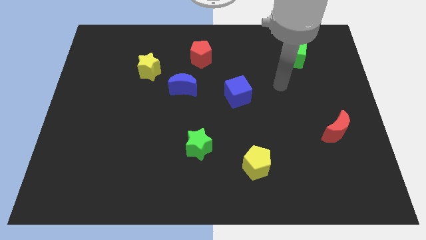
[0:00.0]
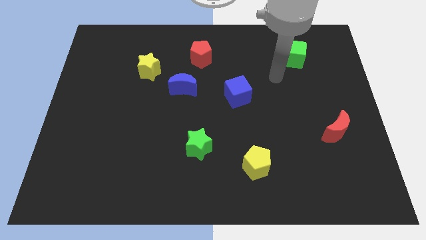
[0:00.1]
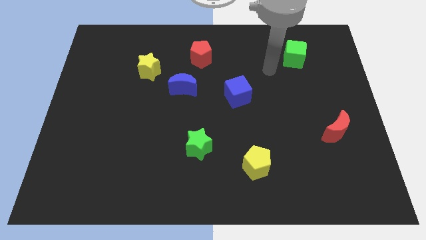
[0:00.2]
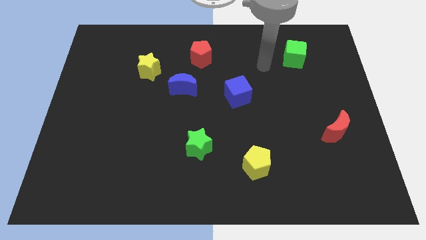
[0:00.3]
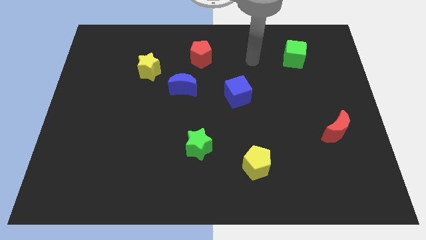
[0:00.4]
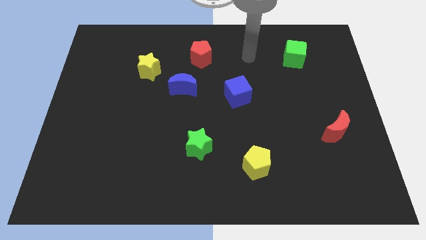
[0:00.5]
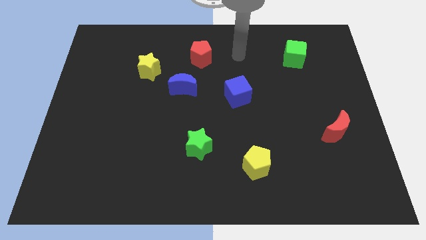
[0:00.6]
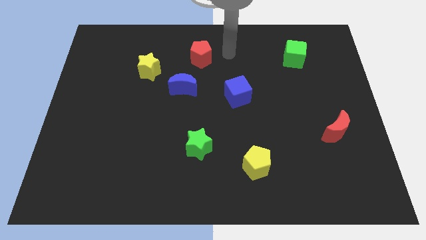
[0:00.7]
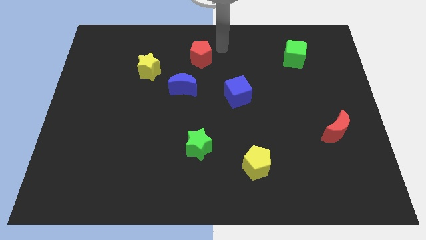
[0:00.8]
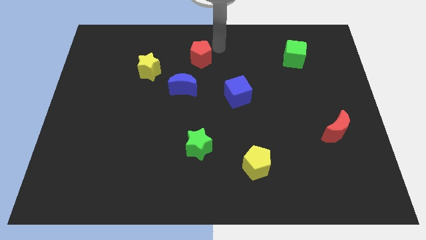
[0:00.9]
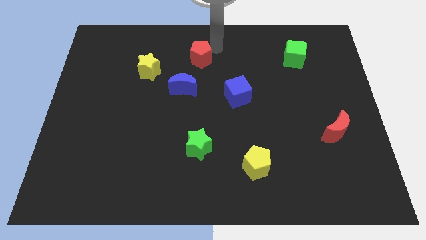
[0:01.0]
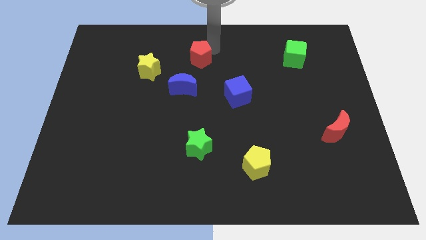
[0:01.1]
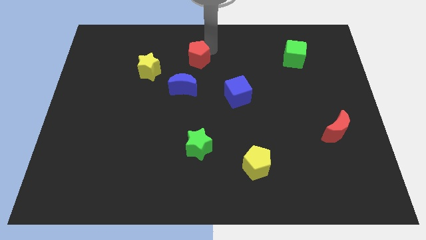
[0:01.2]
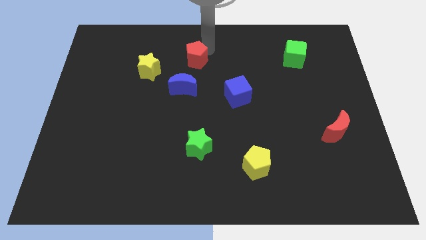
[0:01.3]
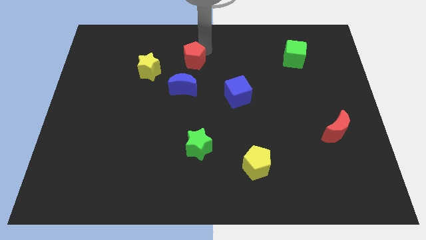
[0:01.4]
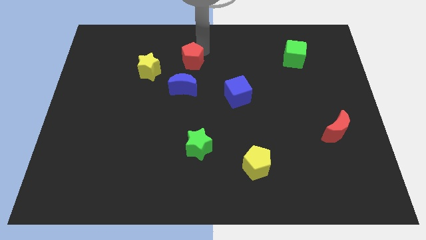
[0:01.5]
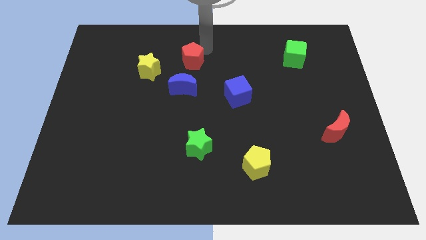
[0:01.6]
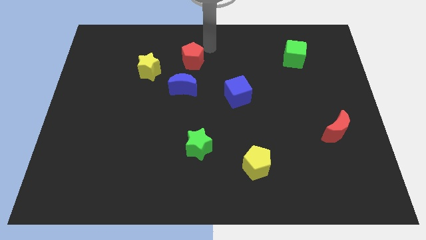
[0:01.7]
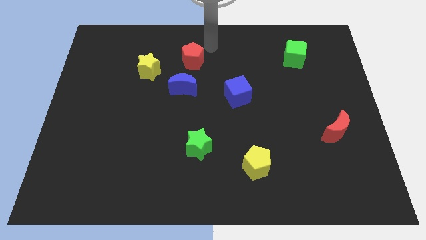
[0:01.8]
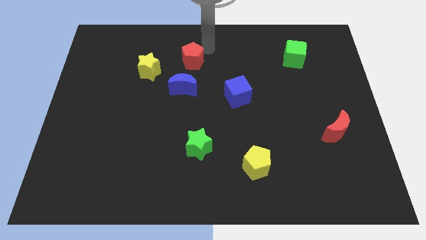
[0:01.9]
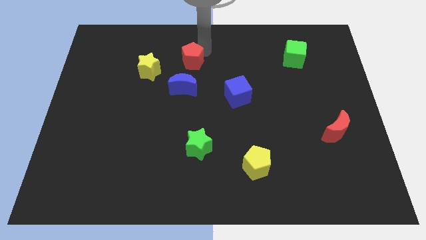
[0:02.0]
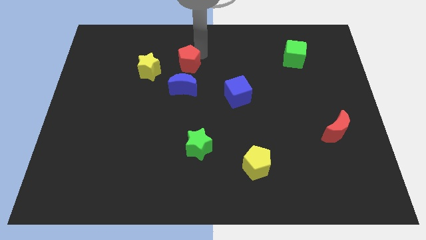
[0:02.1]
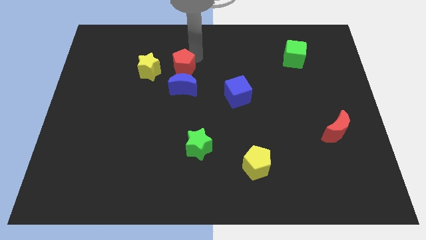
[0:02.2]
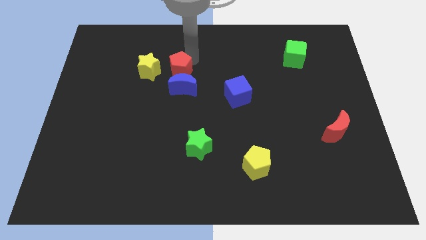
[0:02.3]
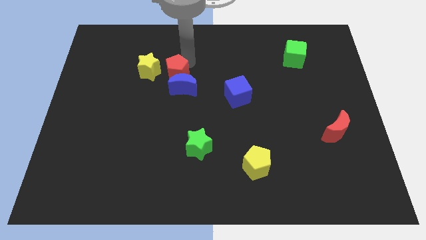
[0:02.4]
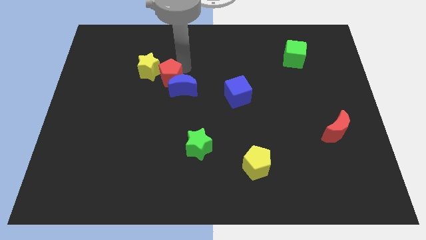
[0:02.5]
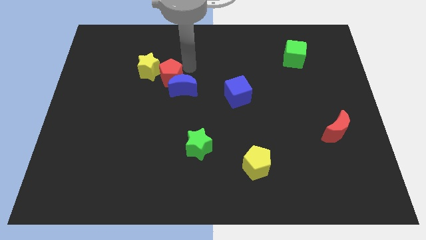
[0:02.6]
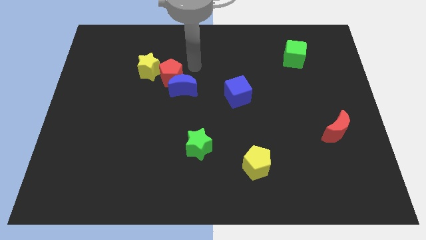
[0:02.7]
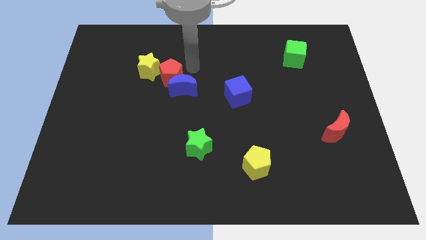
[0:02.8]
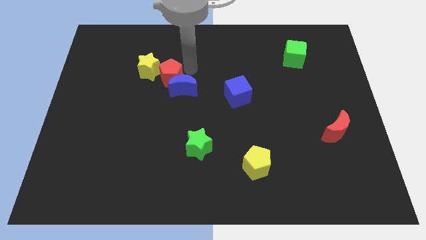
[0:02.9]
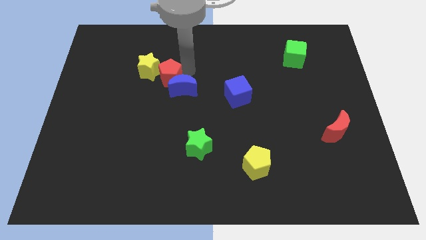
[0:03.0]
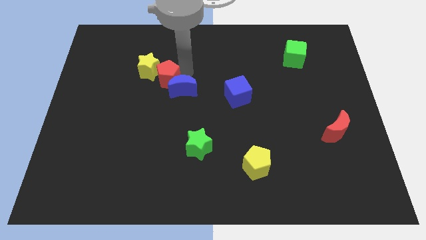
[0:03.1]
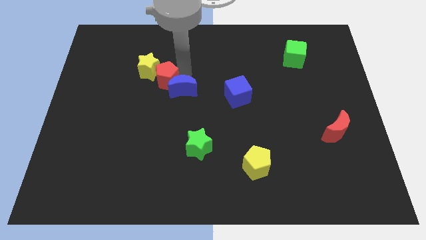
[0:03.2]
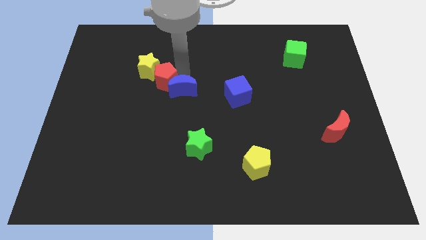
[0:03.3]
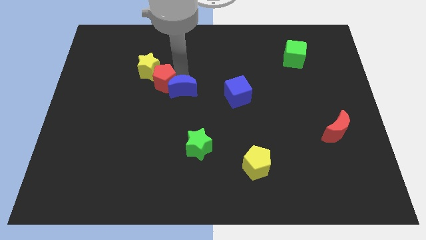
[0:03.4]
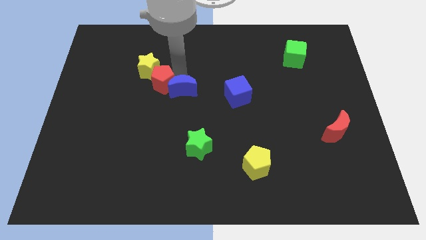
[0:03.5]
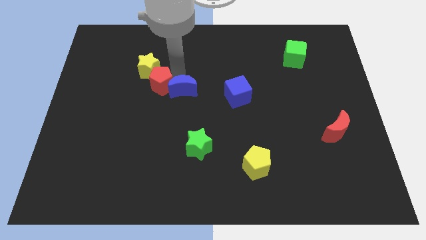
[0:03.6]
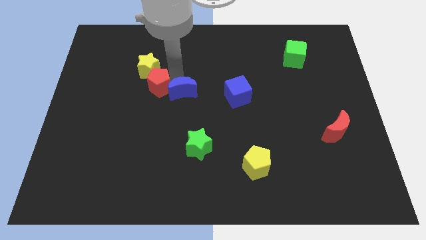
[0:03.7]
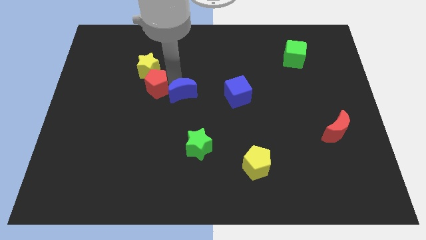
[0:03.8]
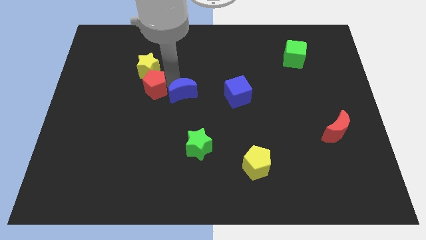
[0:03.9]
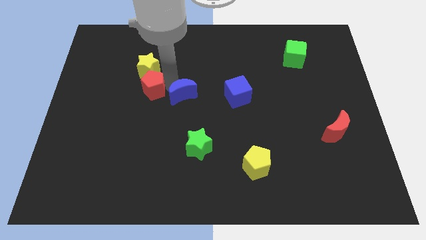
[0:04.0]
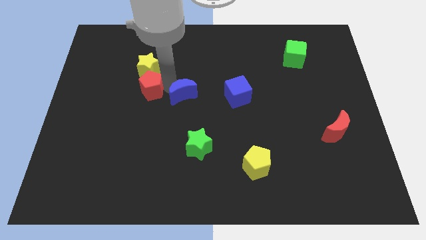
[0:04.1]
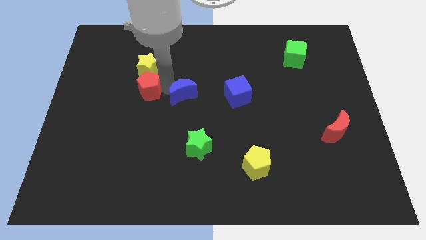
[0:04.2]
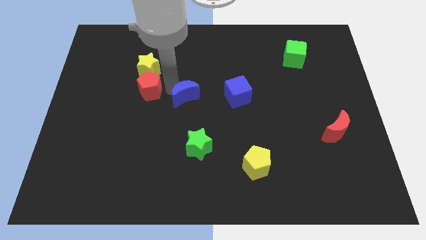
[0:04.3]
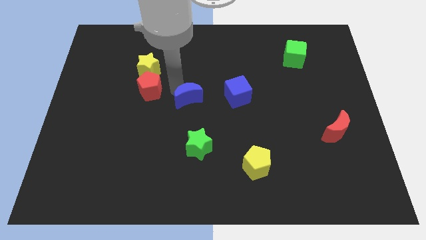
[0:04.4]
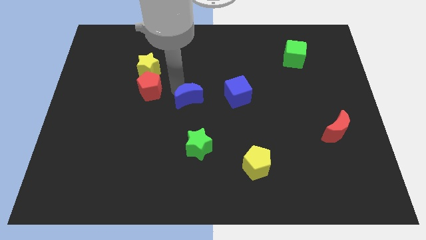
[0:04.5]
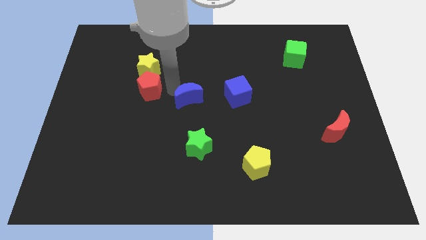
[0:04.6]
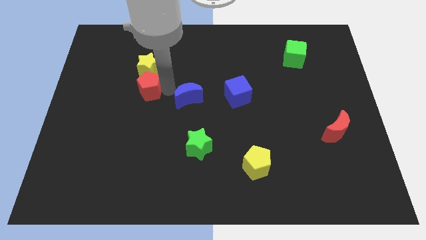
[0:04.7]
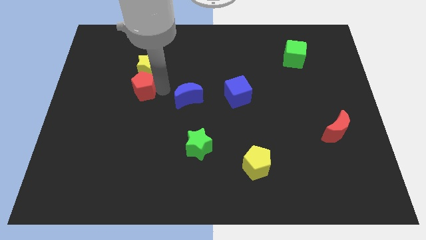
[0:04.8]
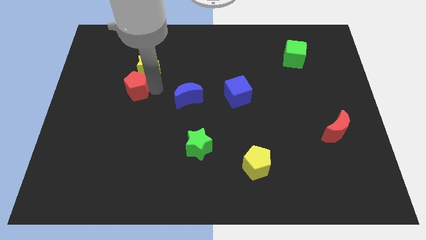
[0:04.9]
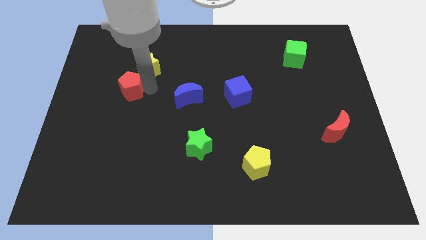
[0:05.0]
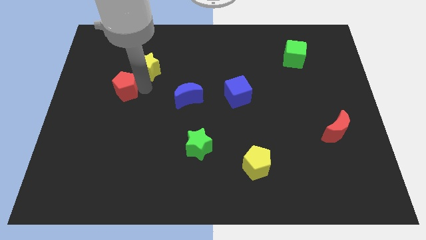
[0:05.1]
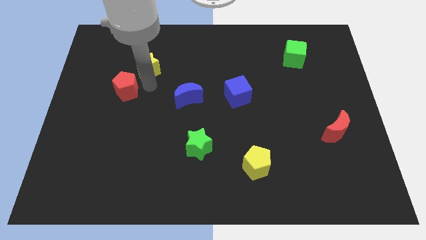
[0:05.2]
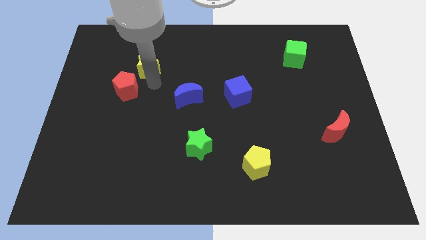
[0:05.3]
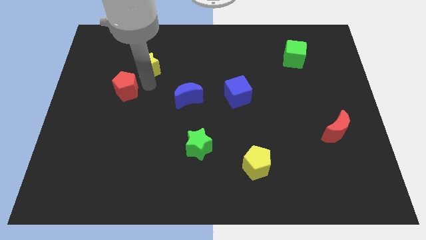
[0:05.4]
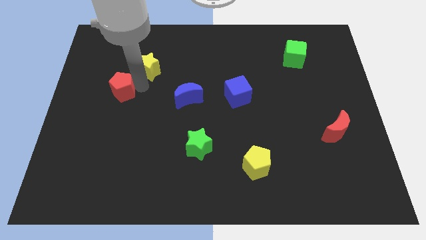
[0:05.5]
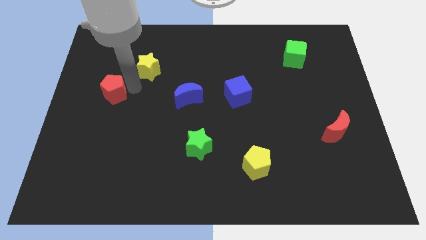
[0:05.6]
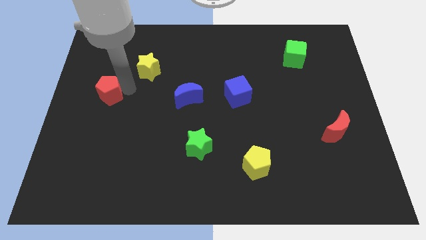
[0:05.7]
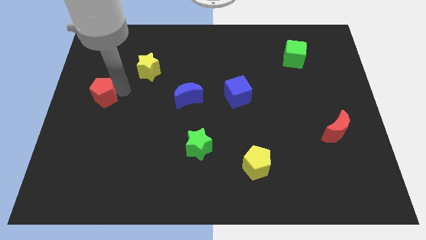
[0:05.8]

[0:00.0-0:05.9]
put the red pentagon to the left side
